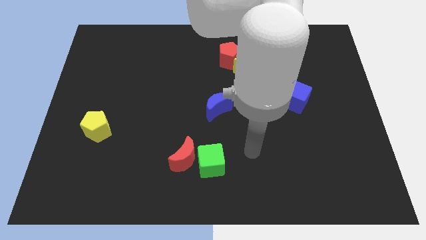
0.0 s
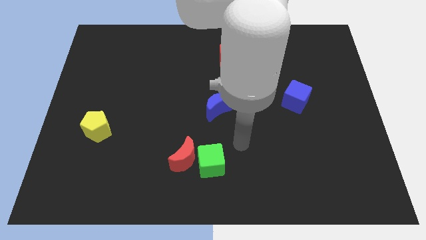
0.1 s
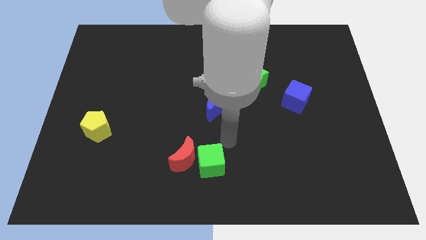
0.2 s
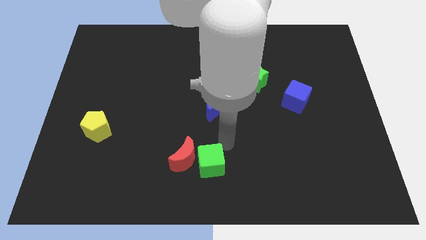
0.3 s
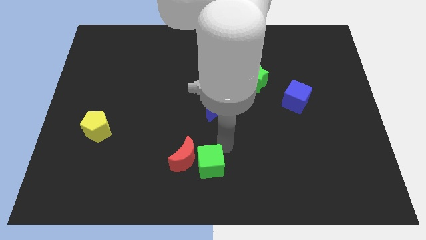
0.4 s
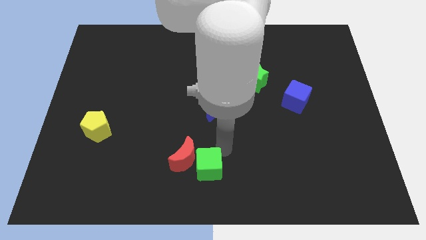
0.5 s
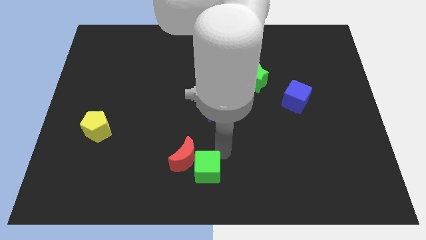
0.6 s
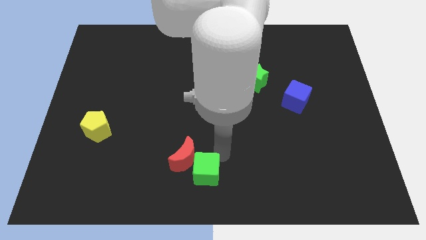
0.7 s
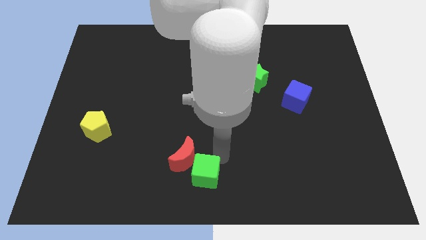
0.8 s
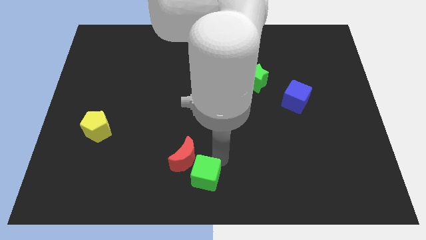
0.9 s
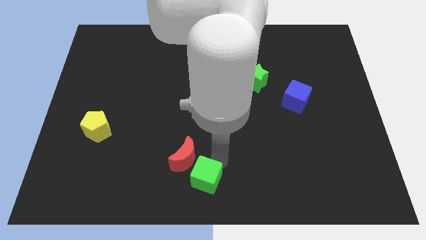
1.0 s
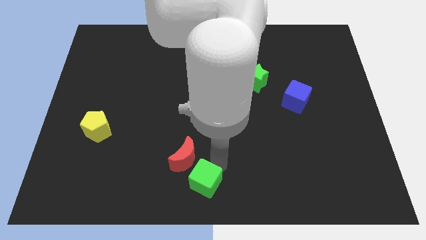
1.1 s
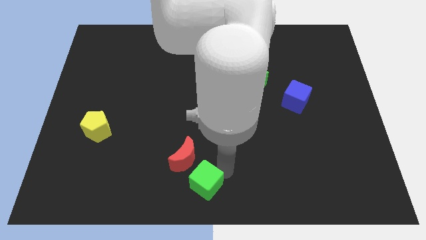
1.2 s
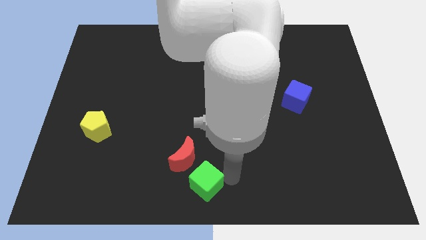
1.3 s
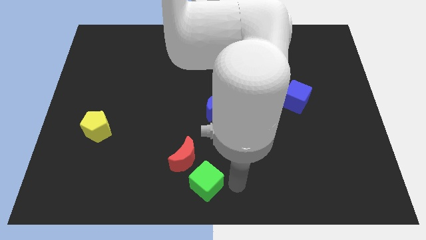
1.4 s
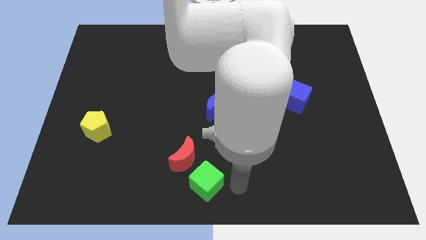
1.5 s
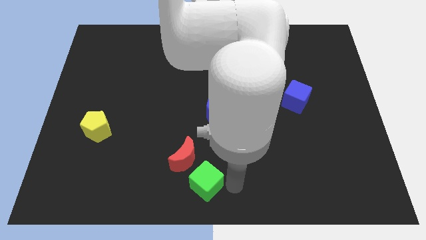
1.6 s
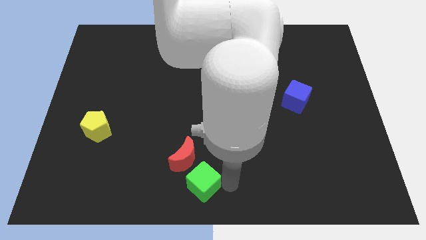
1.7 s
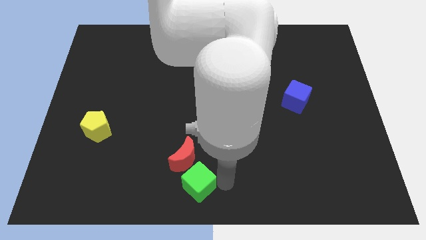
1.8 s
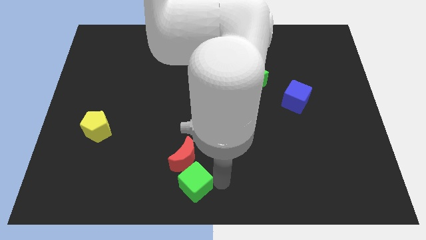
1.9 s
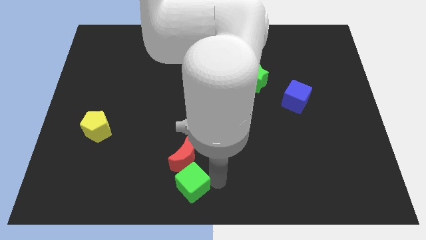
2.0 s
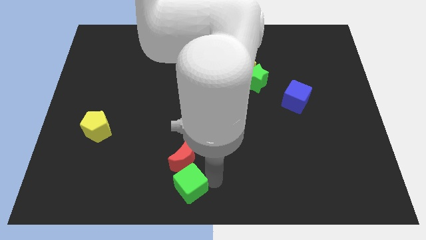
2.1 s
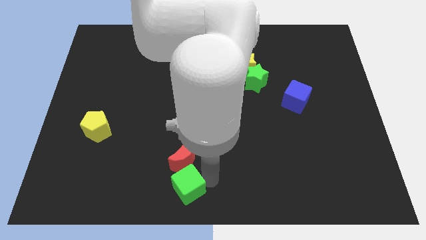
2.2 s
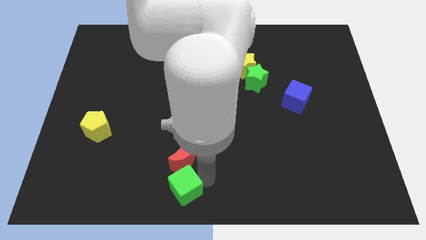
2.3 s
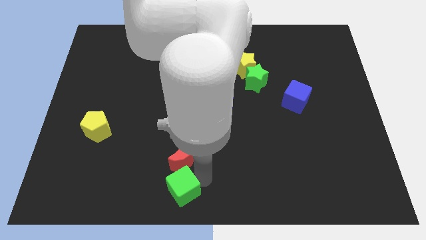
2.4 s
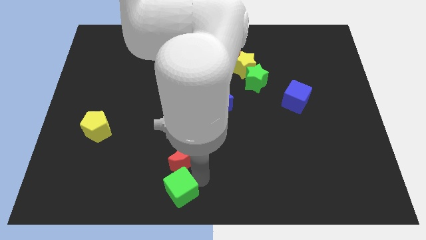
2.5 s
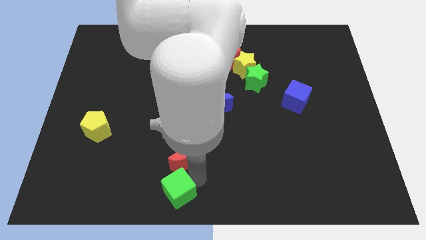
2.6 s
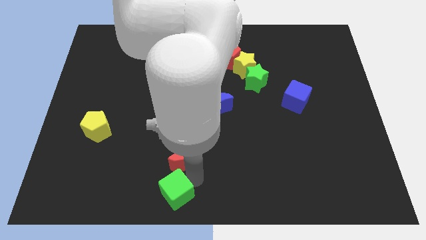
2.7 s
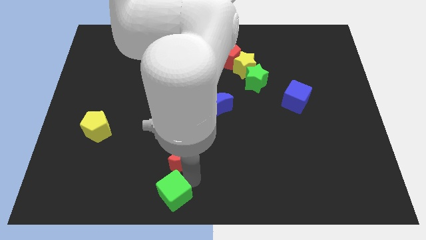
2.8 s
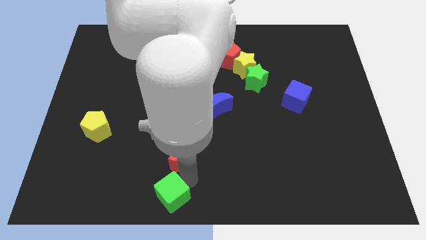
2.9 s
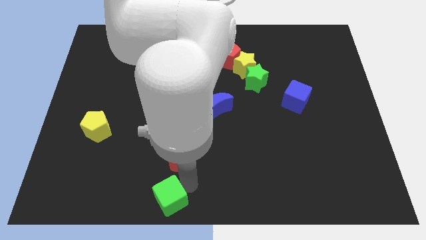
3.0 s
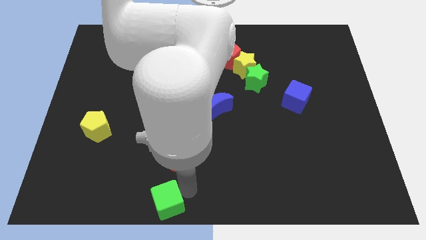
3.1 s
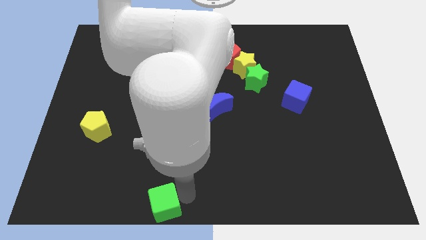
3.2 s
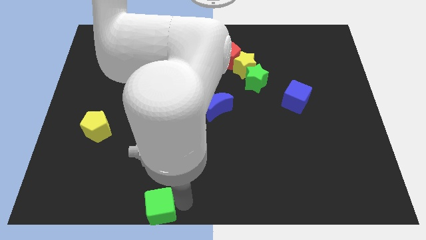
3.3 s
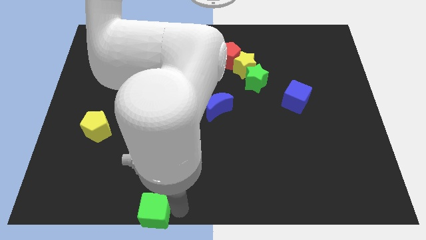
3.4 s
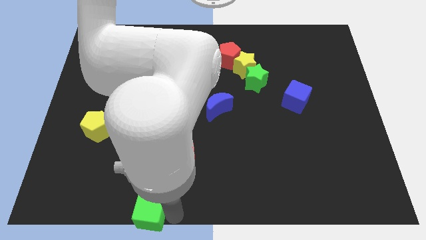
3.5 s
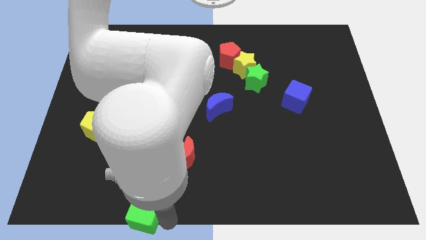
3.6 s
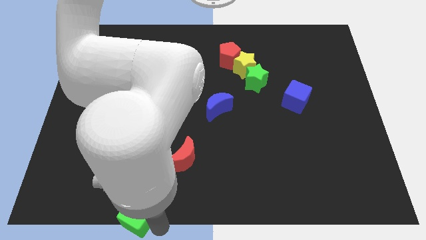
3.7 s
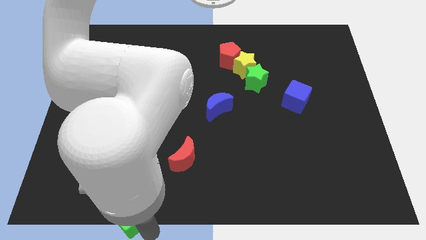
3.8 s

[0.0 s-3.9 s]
slightly slide the green cube to the left

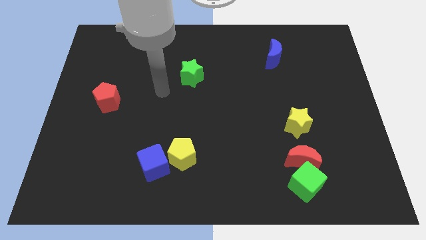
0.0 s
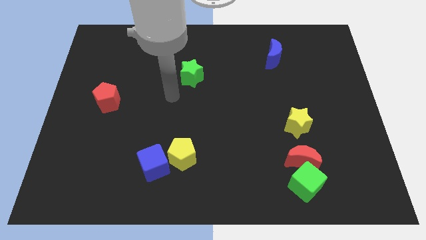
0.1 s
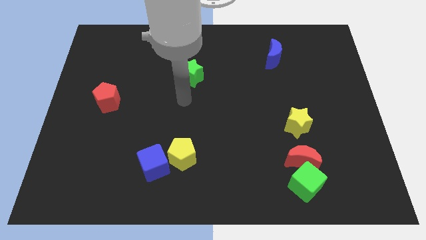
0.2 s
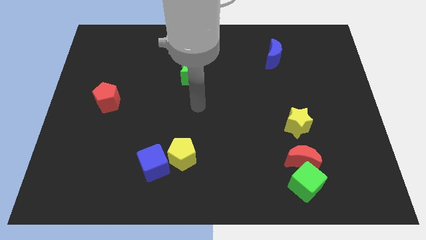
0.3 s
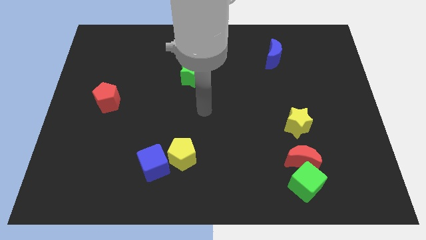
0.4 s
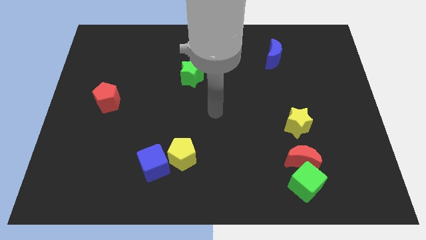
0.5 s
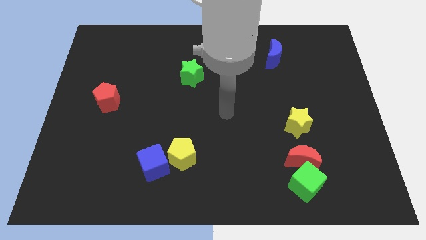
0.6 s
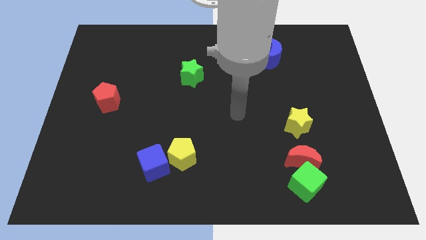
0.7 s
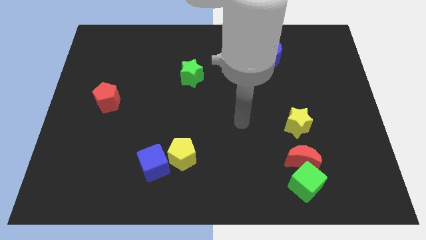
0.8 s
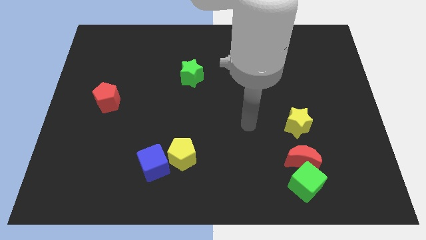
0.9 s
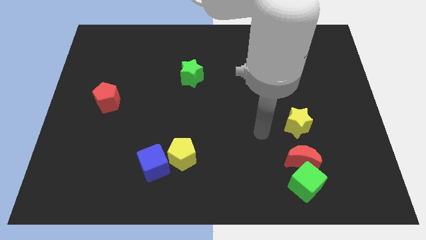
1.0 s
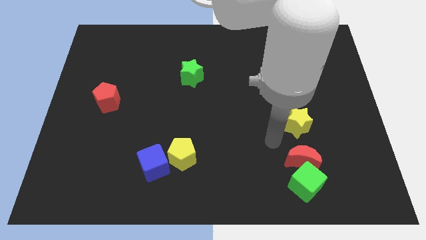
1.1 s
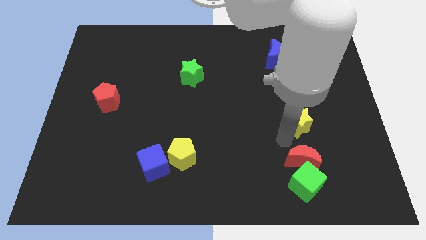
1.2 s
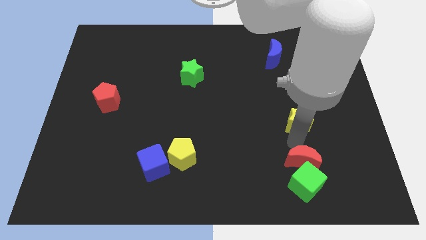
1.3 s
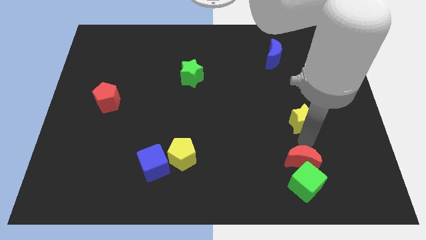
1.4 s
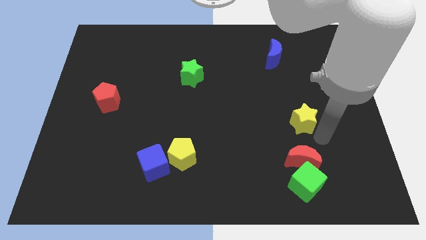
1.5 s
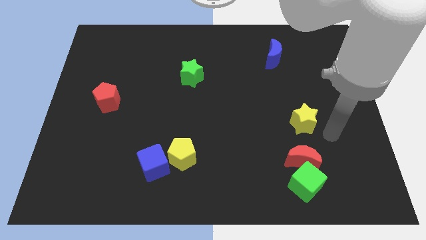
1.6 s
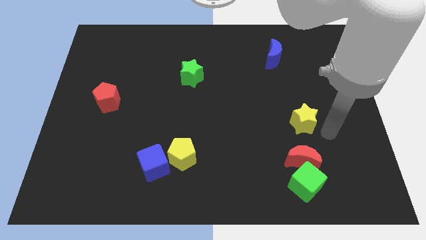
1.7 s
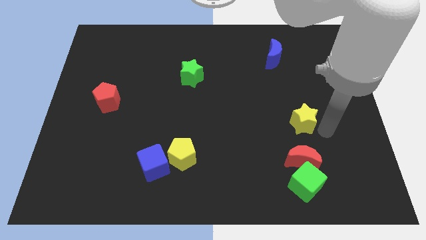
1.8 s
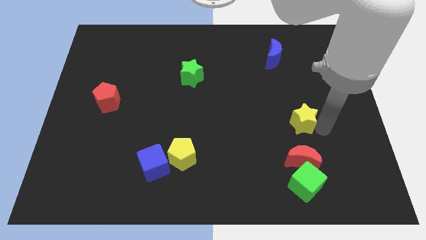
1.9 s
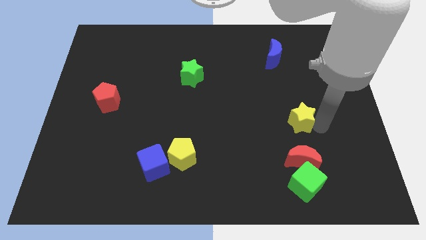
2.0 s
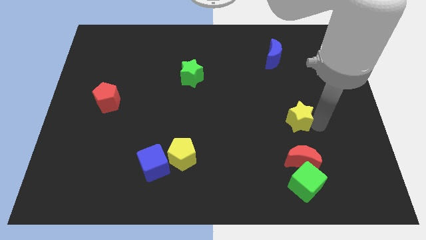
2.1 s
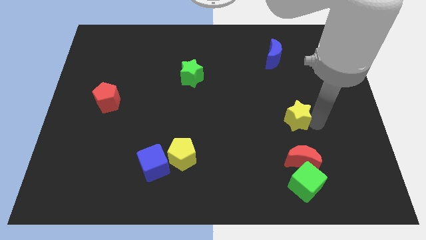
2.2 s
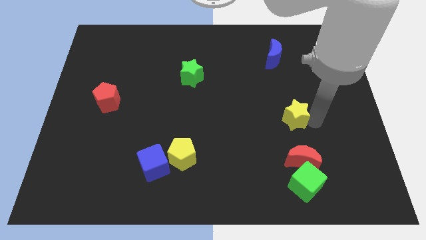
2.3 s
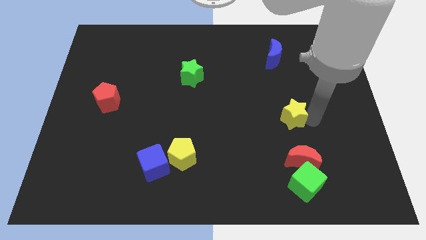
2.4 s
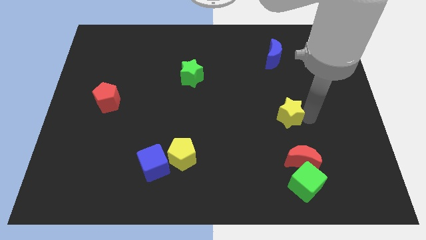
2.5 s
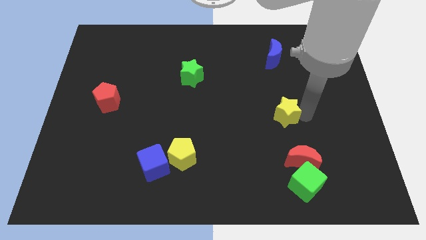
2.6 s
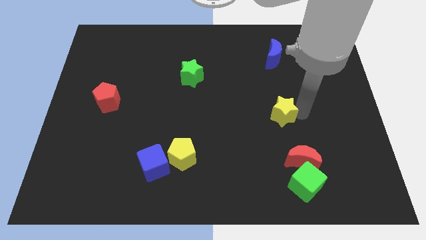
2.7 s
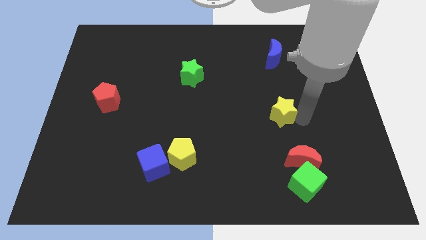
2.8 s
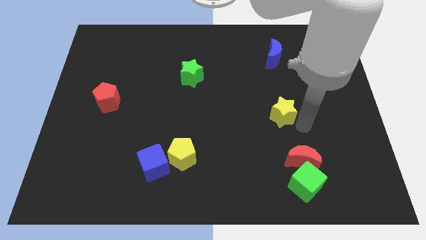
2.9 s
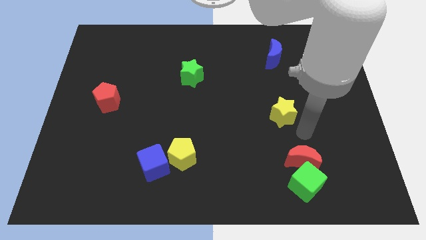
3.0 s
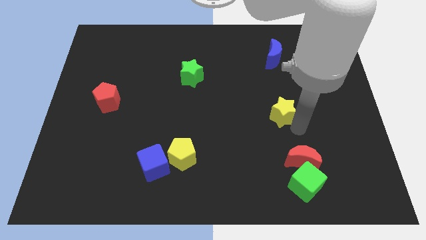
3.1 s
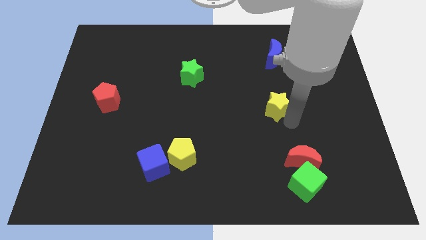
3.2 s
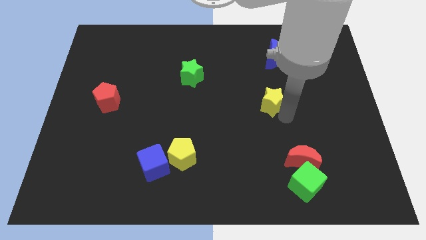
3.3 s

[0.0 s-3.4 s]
move the yellow star diagonally upwards and to the left slightly

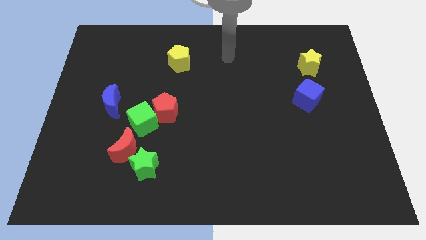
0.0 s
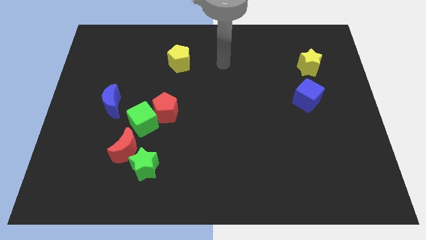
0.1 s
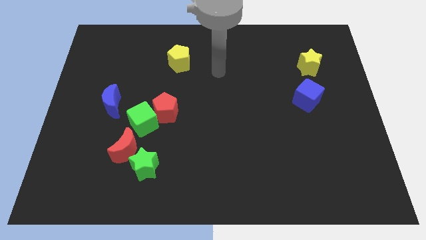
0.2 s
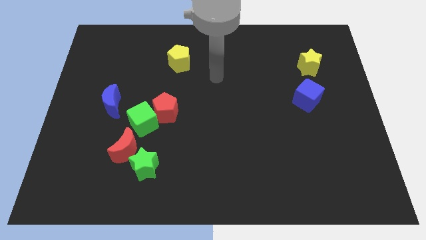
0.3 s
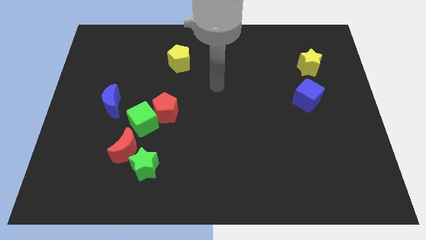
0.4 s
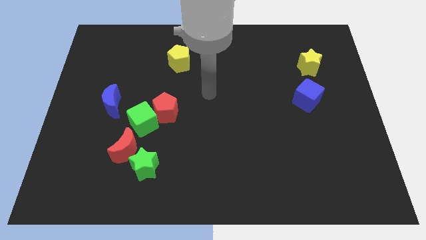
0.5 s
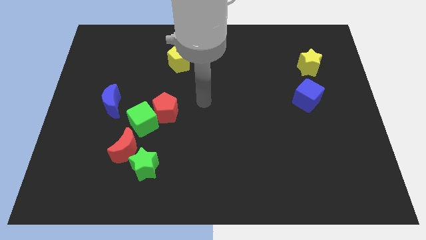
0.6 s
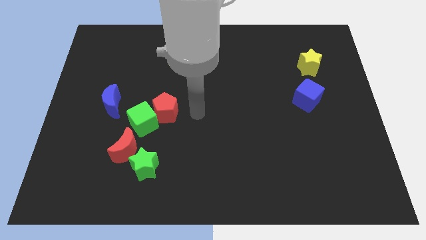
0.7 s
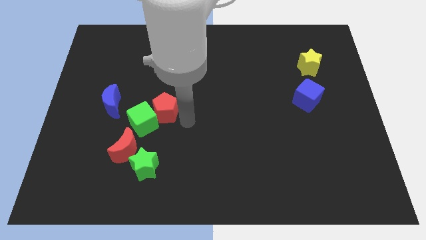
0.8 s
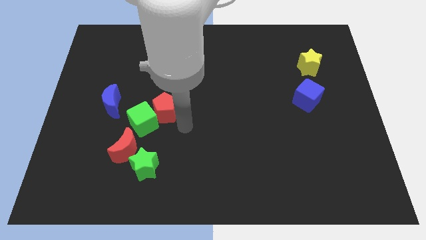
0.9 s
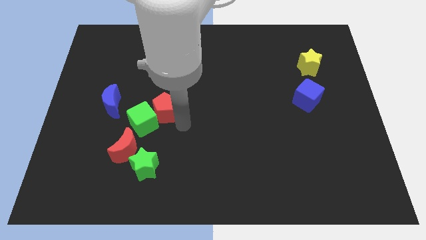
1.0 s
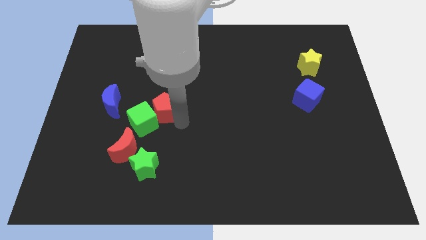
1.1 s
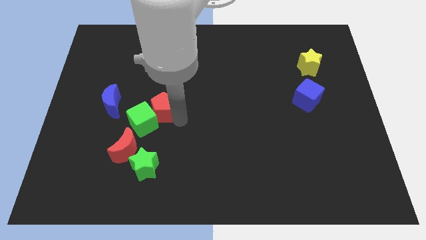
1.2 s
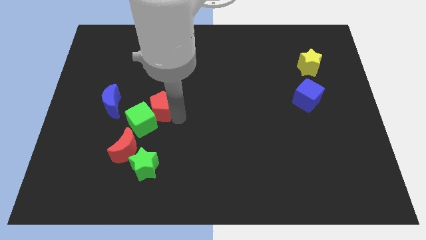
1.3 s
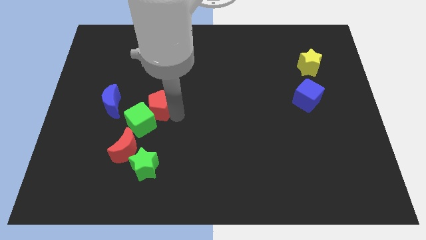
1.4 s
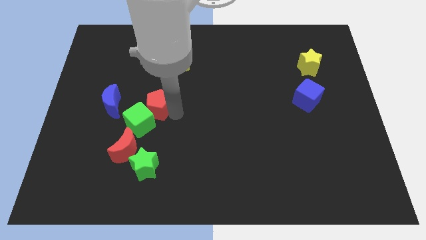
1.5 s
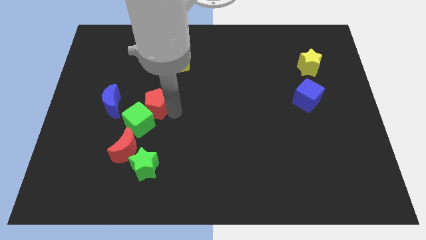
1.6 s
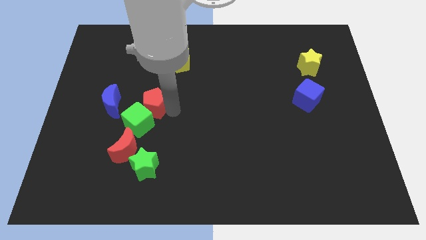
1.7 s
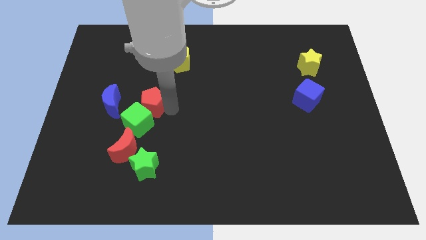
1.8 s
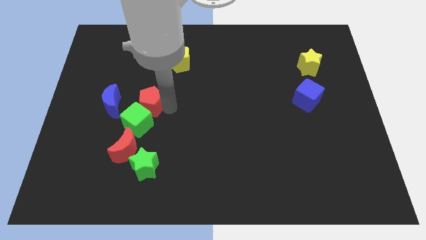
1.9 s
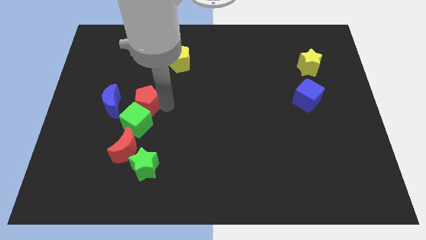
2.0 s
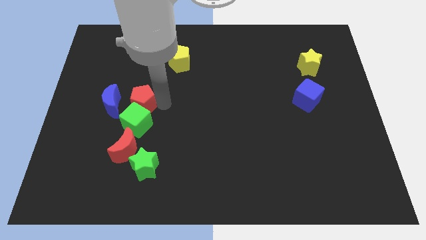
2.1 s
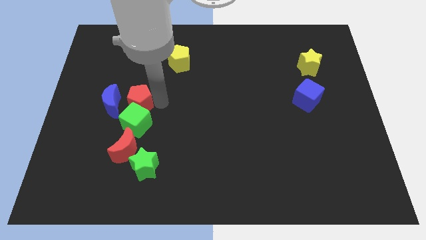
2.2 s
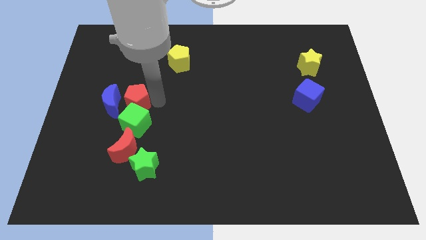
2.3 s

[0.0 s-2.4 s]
move the red pentagon slightly diagonally up and to the left
